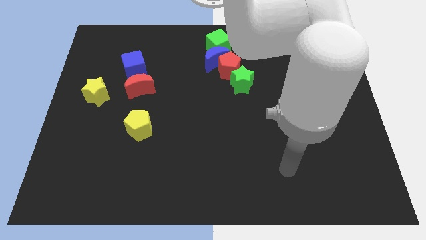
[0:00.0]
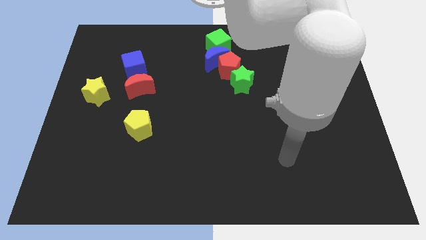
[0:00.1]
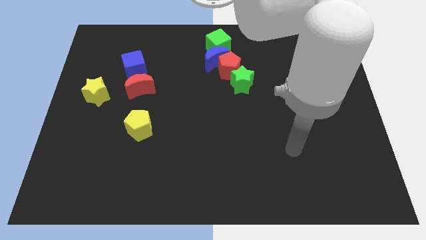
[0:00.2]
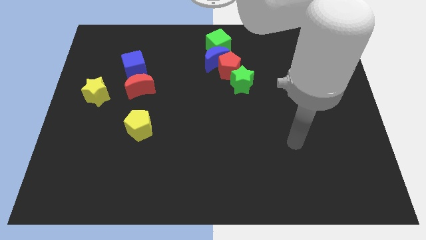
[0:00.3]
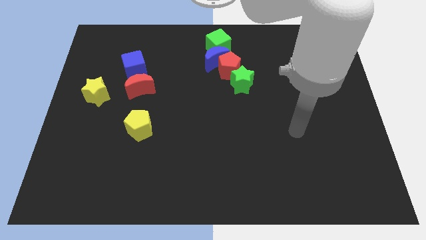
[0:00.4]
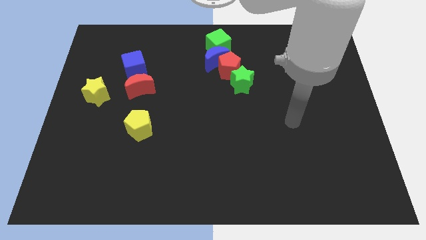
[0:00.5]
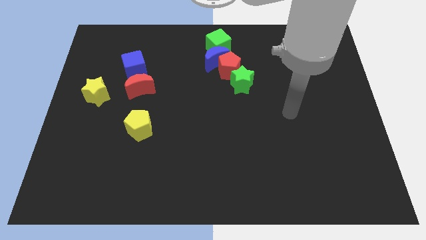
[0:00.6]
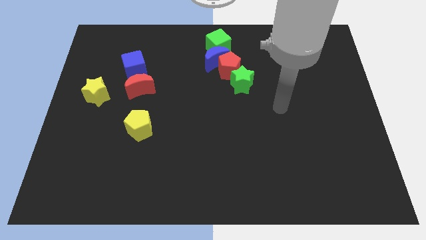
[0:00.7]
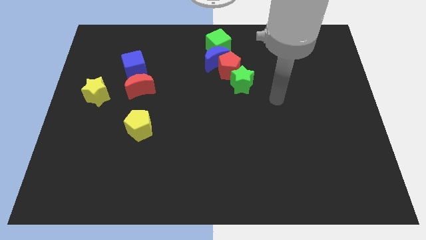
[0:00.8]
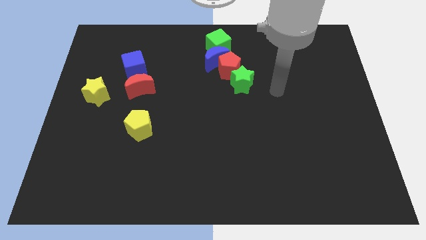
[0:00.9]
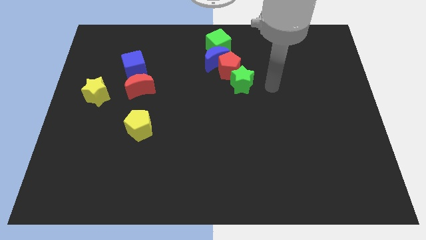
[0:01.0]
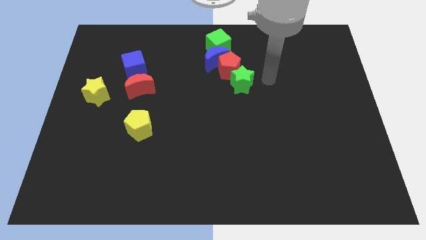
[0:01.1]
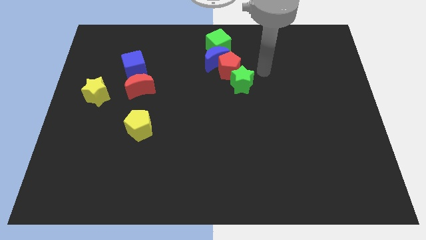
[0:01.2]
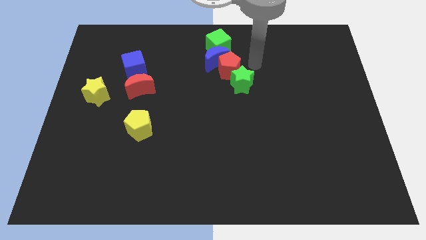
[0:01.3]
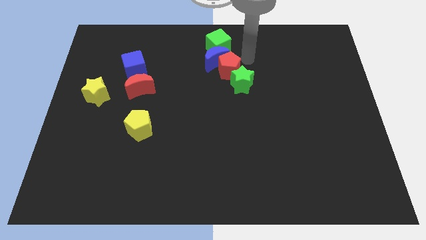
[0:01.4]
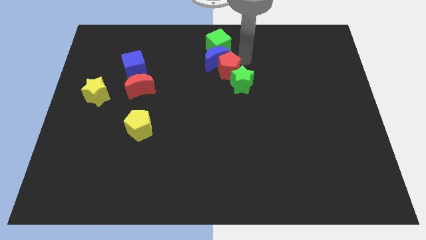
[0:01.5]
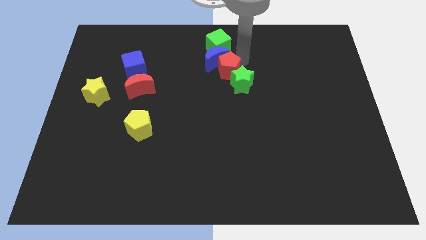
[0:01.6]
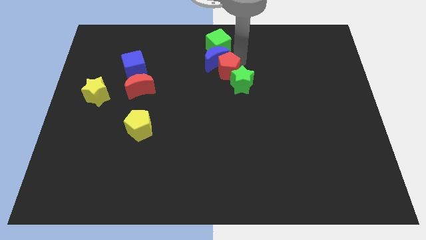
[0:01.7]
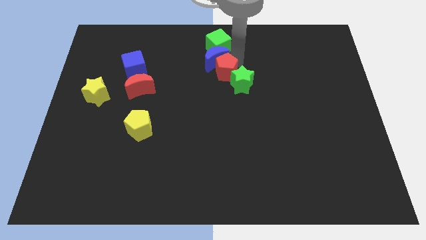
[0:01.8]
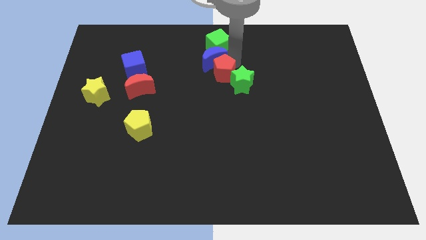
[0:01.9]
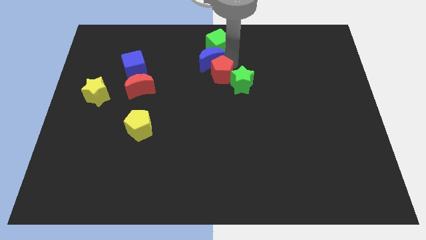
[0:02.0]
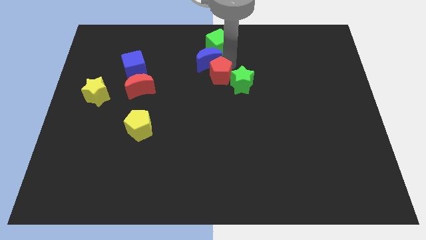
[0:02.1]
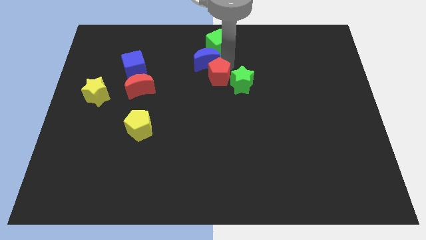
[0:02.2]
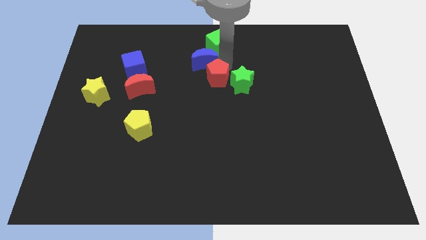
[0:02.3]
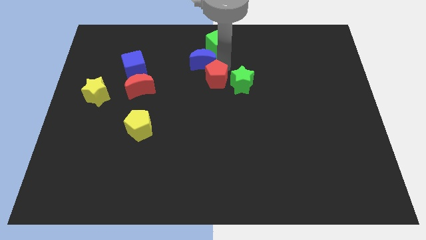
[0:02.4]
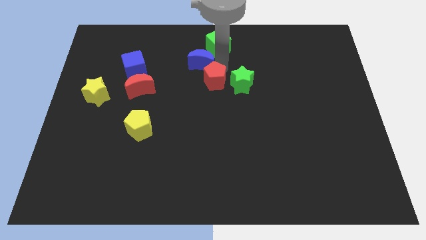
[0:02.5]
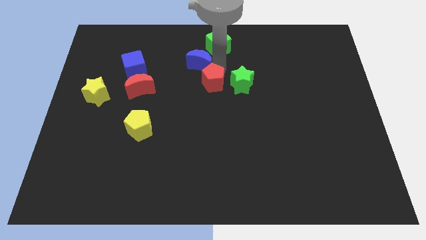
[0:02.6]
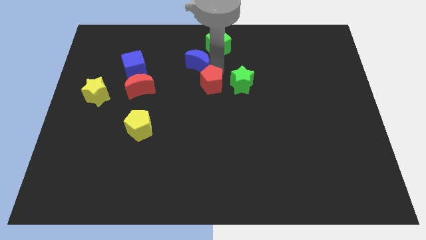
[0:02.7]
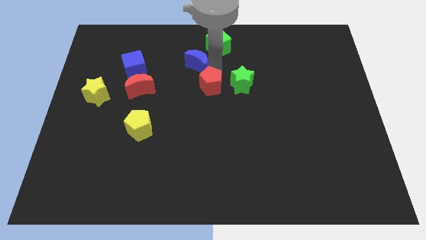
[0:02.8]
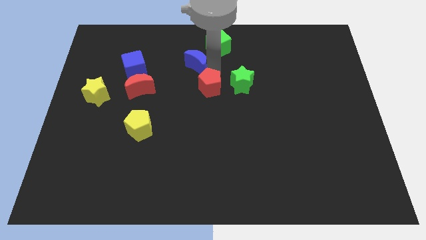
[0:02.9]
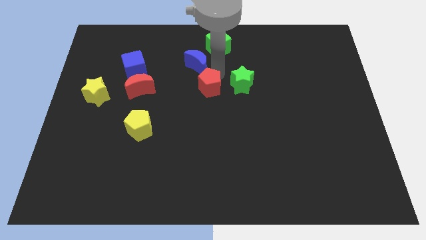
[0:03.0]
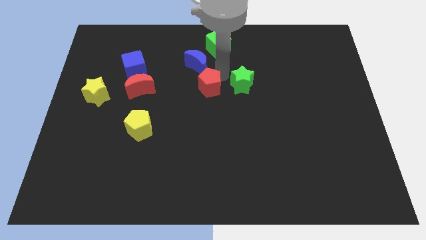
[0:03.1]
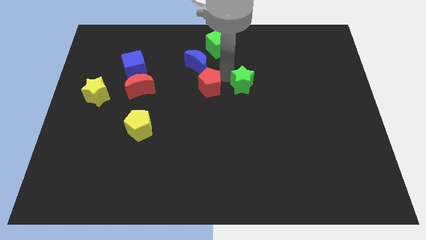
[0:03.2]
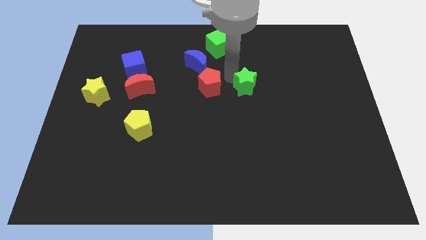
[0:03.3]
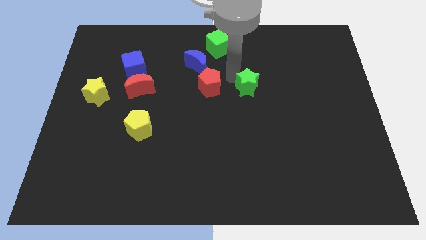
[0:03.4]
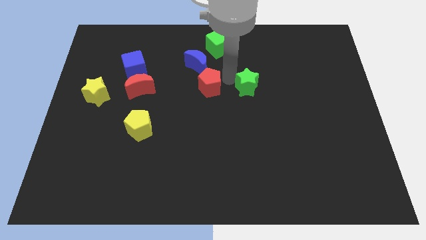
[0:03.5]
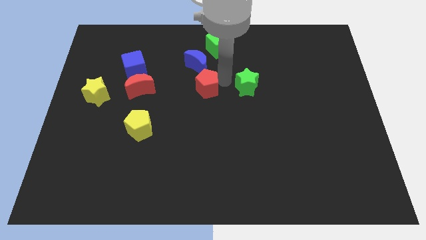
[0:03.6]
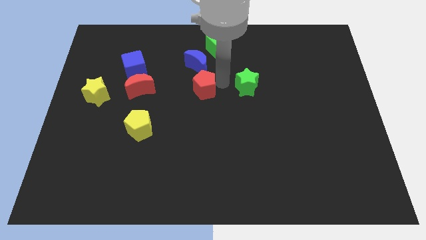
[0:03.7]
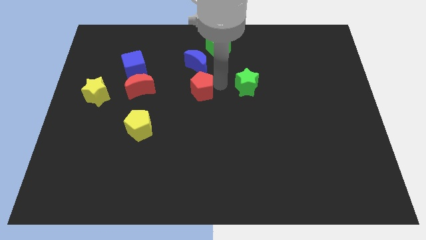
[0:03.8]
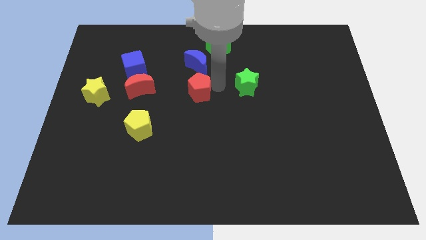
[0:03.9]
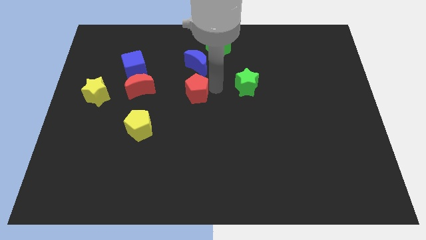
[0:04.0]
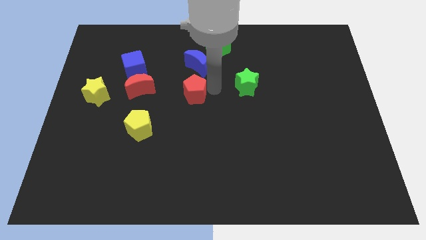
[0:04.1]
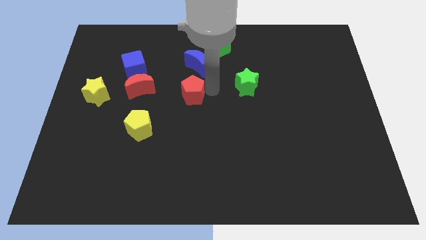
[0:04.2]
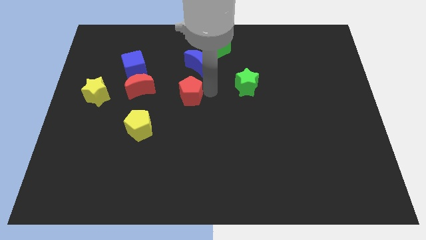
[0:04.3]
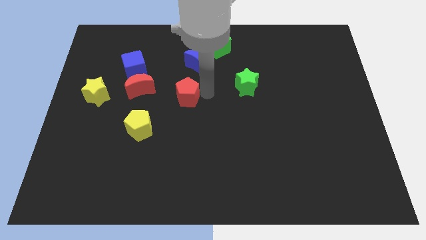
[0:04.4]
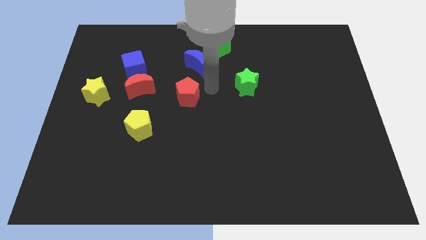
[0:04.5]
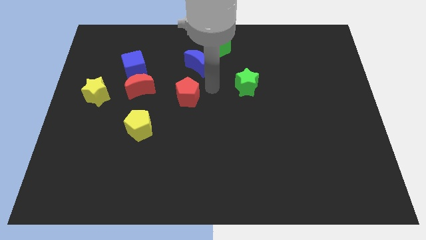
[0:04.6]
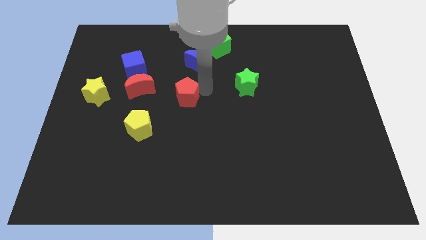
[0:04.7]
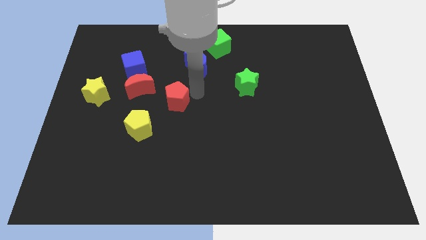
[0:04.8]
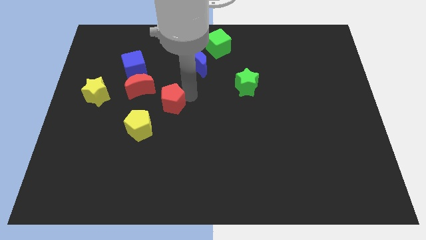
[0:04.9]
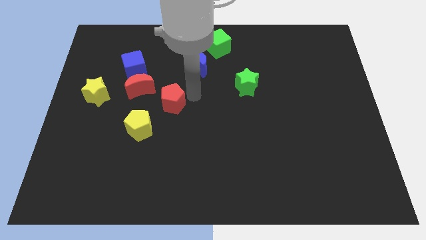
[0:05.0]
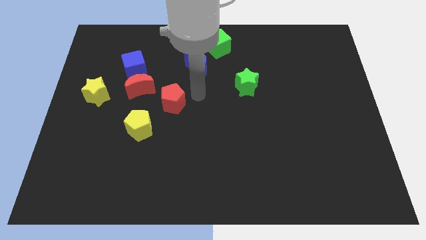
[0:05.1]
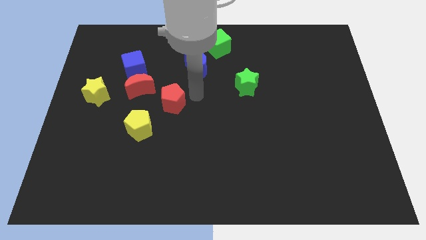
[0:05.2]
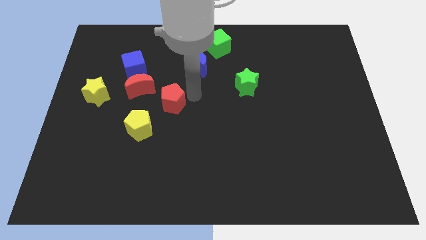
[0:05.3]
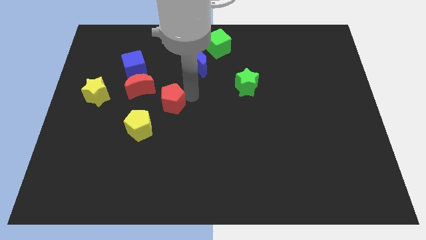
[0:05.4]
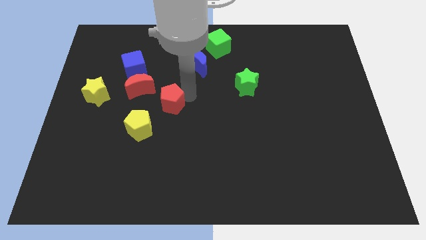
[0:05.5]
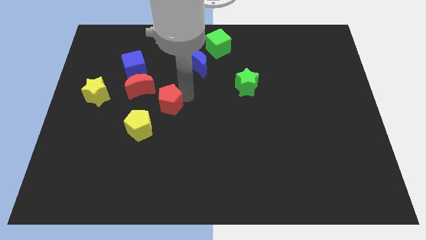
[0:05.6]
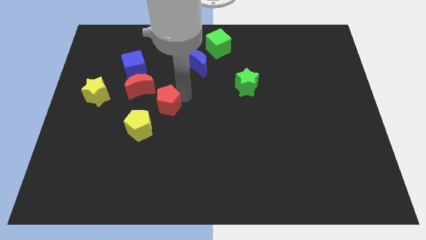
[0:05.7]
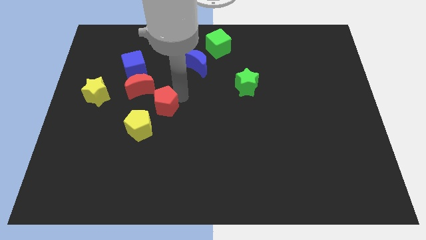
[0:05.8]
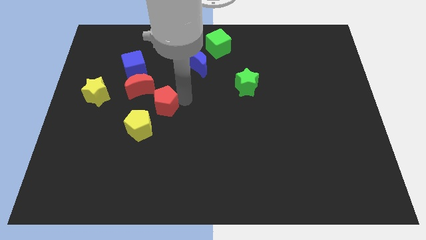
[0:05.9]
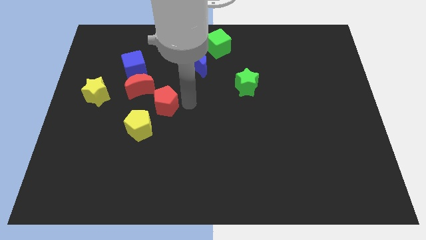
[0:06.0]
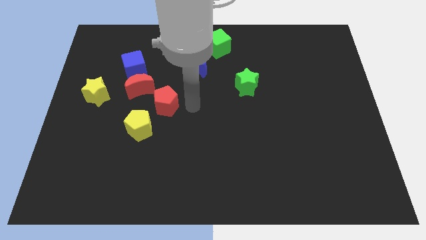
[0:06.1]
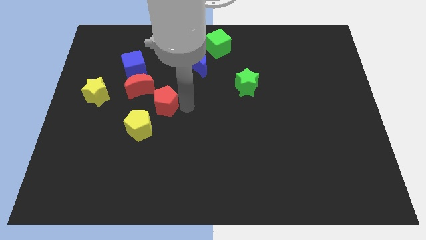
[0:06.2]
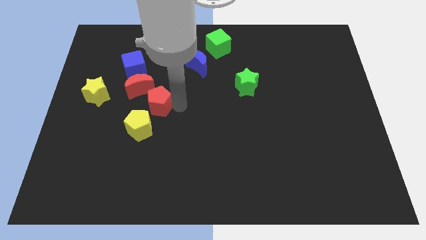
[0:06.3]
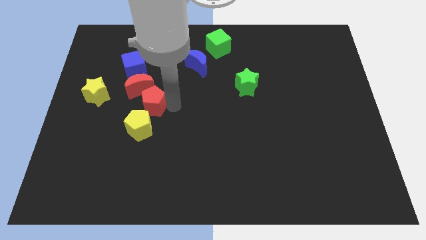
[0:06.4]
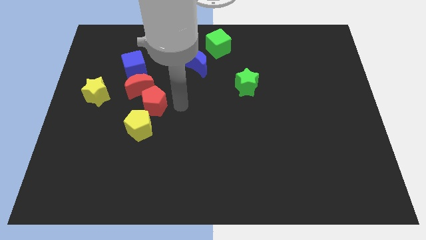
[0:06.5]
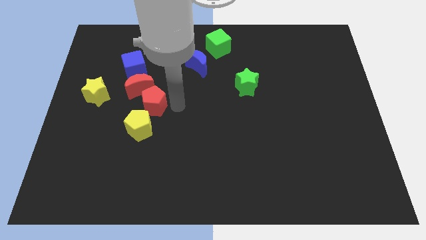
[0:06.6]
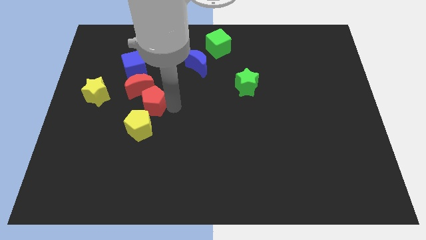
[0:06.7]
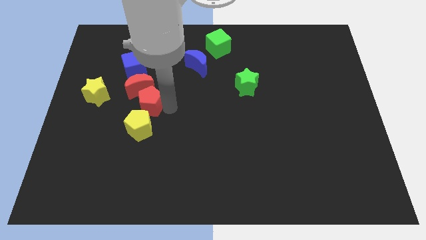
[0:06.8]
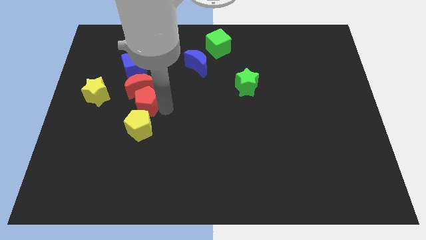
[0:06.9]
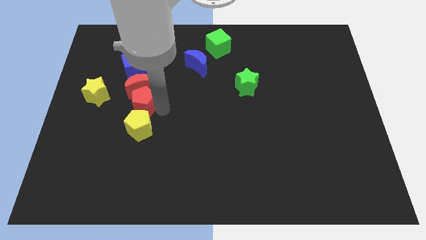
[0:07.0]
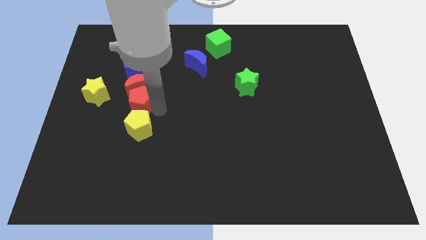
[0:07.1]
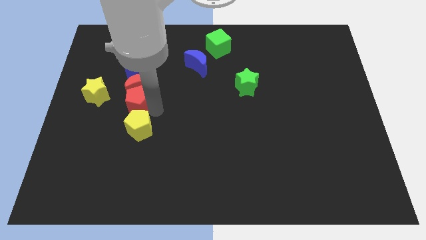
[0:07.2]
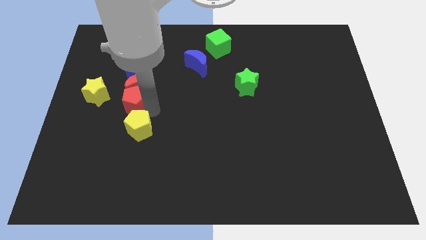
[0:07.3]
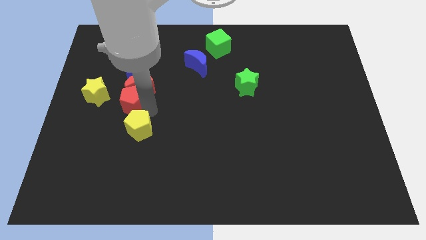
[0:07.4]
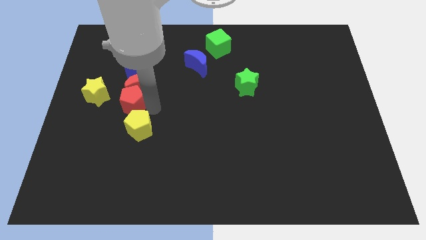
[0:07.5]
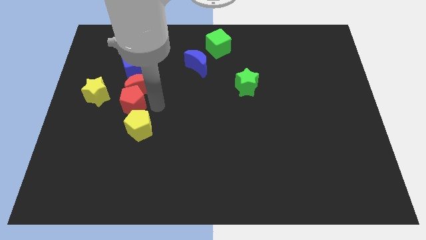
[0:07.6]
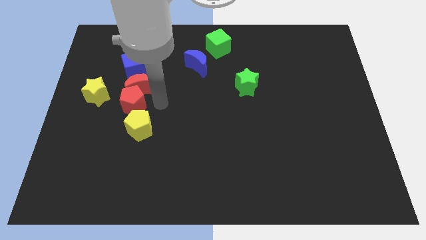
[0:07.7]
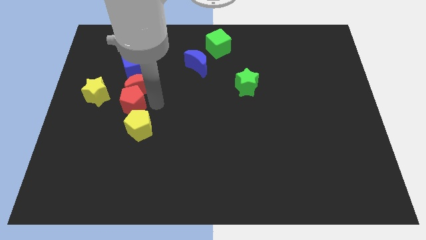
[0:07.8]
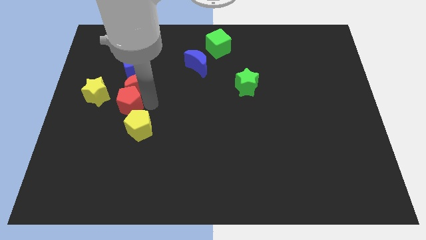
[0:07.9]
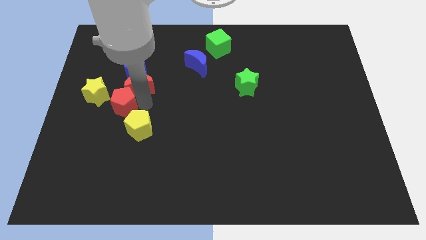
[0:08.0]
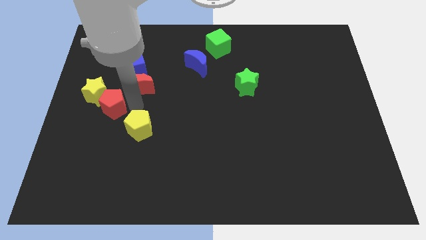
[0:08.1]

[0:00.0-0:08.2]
push the red pentagon close to the yellow star
